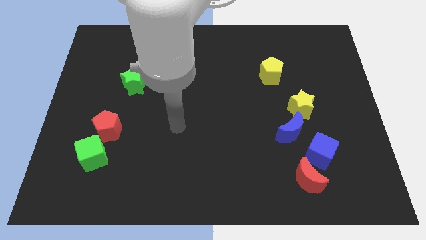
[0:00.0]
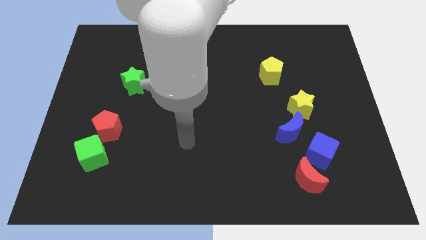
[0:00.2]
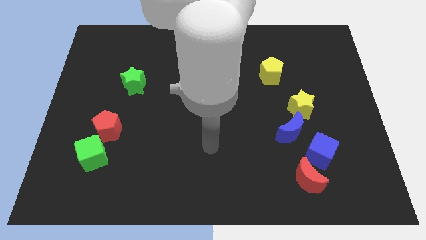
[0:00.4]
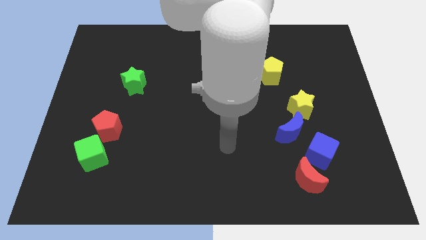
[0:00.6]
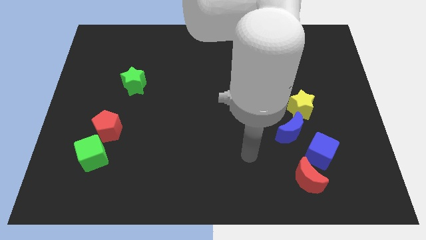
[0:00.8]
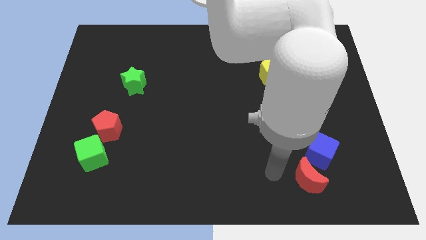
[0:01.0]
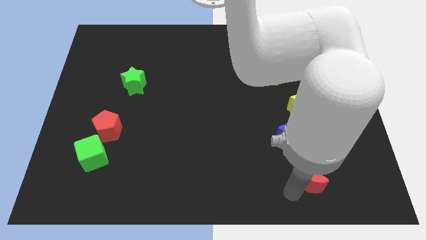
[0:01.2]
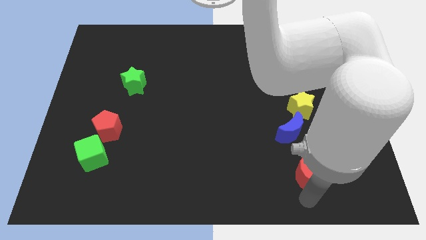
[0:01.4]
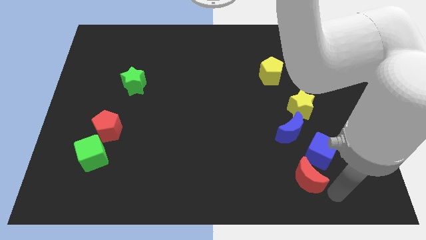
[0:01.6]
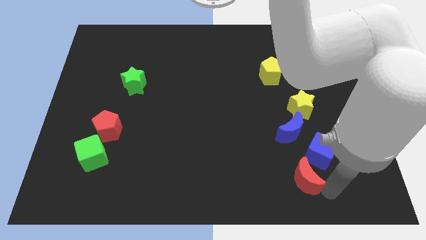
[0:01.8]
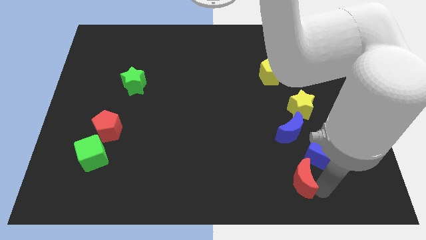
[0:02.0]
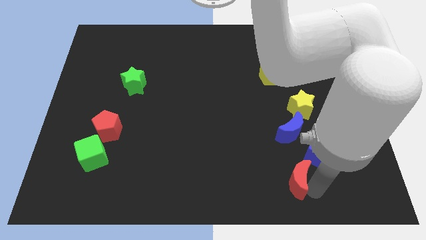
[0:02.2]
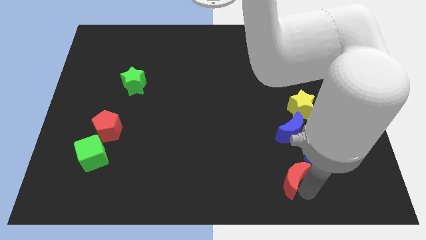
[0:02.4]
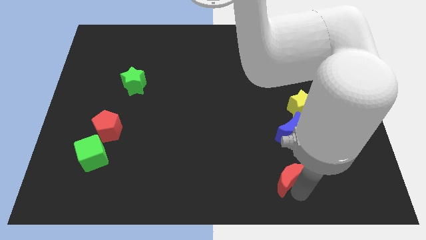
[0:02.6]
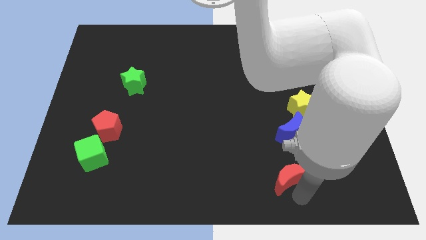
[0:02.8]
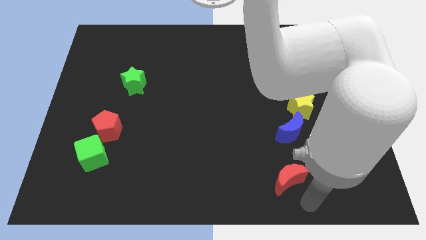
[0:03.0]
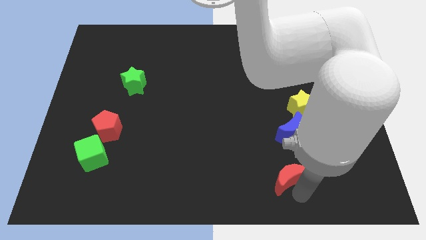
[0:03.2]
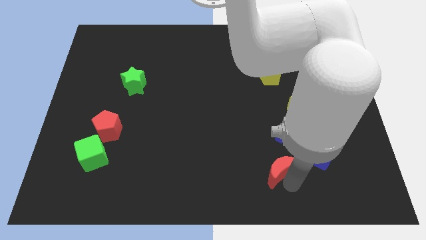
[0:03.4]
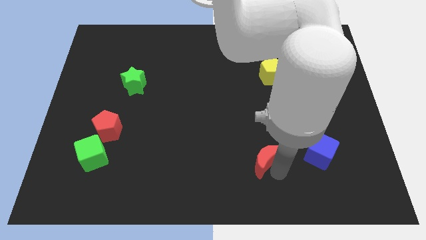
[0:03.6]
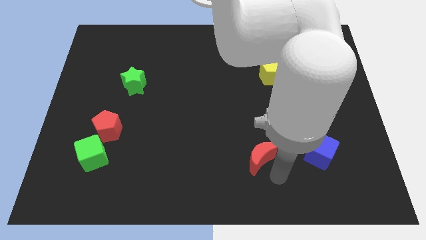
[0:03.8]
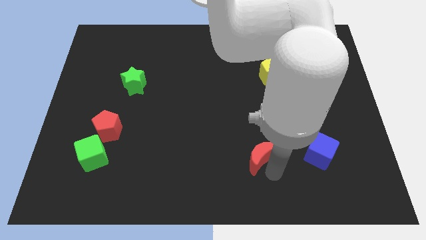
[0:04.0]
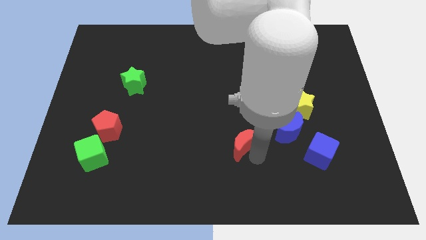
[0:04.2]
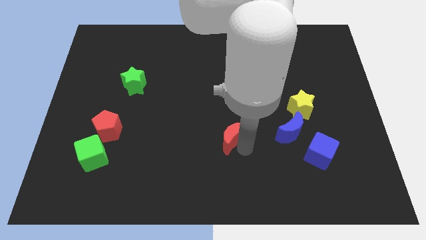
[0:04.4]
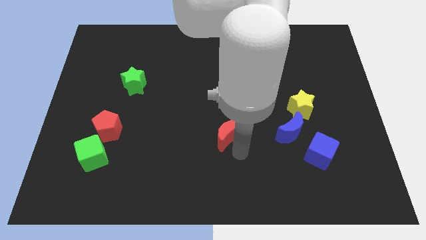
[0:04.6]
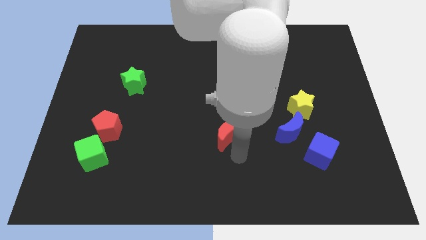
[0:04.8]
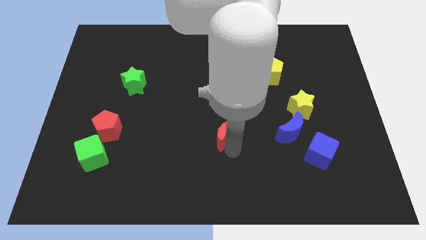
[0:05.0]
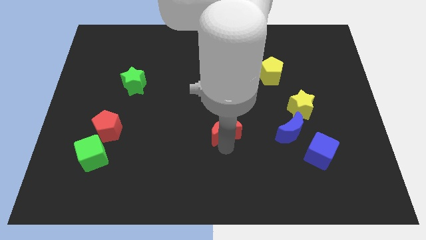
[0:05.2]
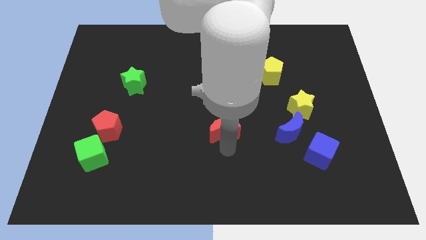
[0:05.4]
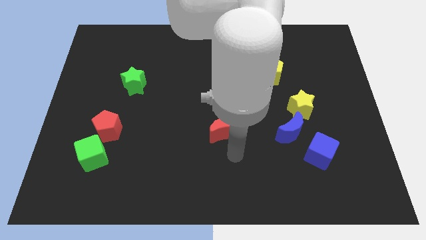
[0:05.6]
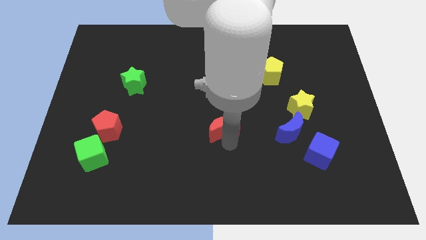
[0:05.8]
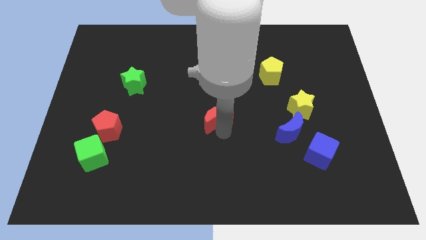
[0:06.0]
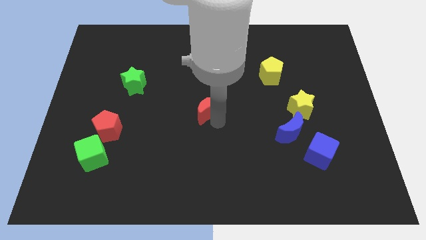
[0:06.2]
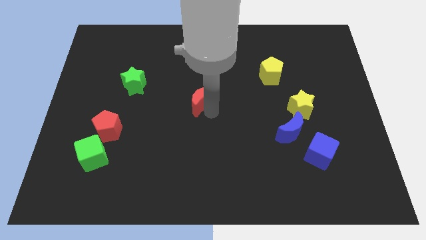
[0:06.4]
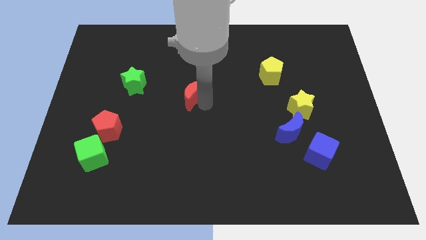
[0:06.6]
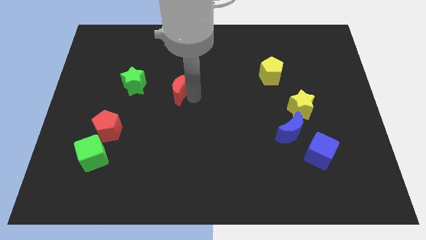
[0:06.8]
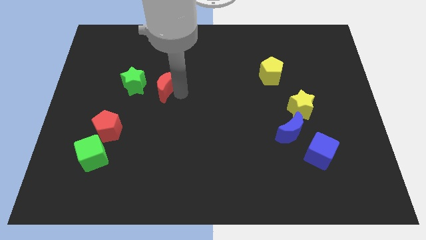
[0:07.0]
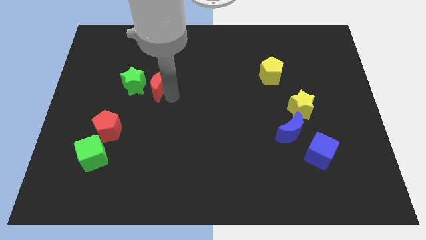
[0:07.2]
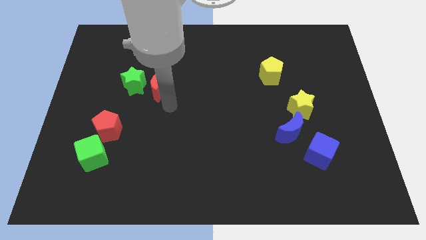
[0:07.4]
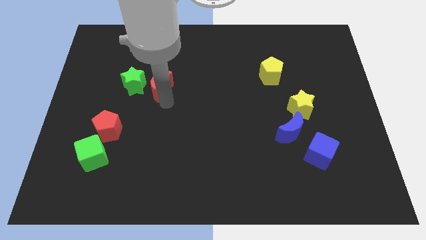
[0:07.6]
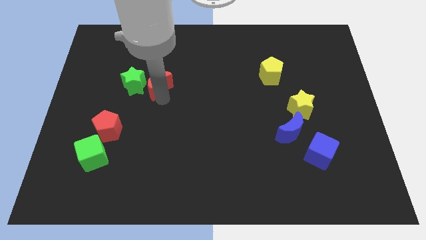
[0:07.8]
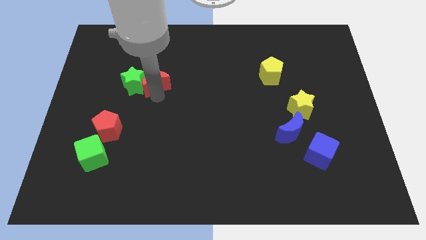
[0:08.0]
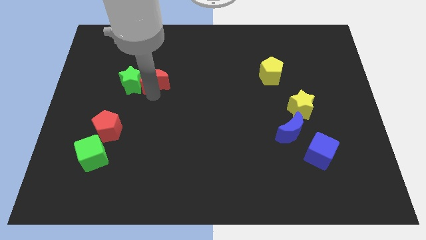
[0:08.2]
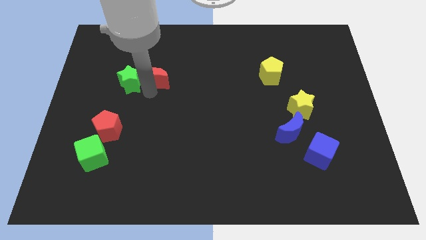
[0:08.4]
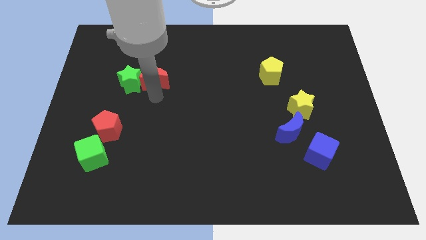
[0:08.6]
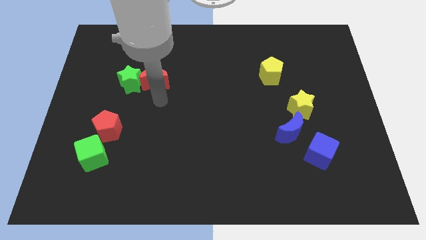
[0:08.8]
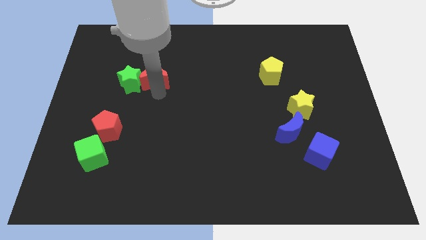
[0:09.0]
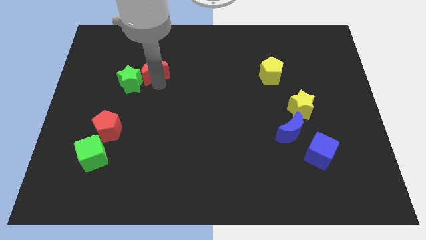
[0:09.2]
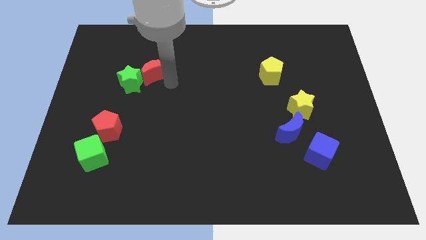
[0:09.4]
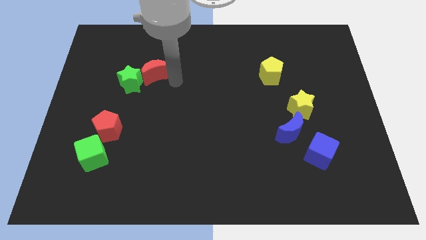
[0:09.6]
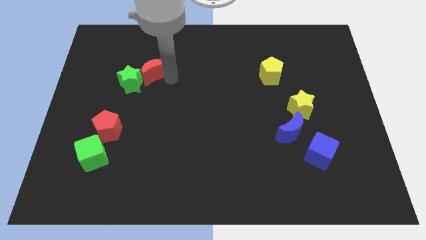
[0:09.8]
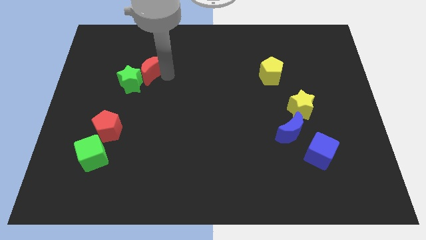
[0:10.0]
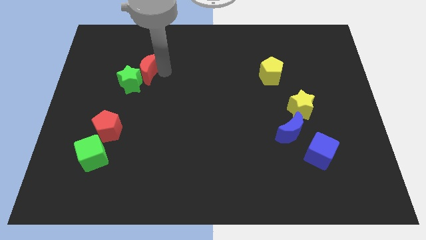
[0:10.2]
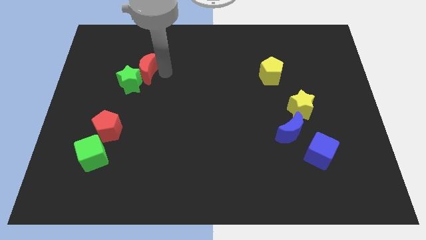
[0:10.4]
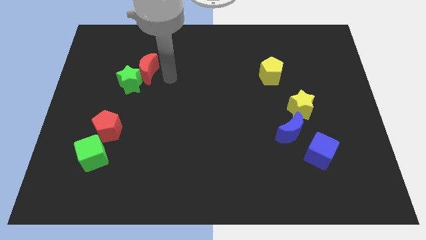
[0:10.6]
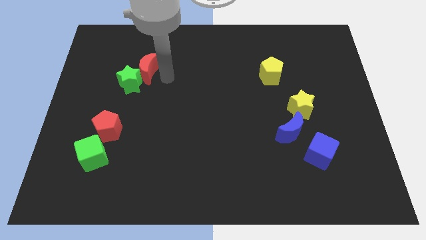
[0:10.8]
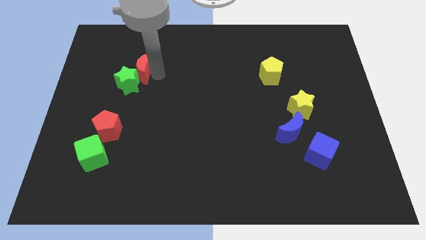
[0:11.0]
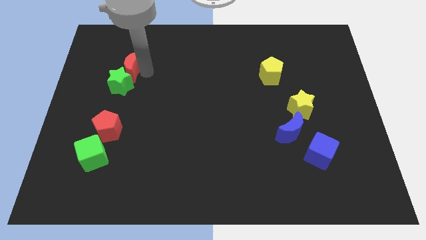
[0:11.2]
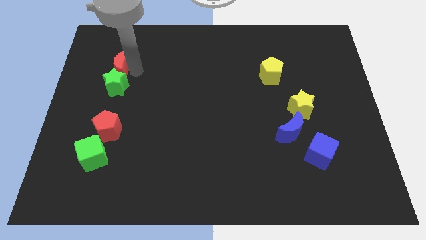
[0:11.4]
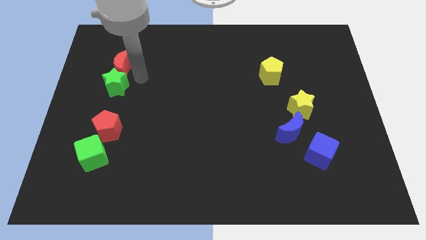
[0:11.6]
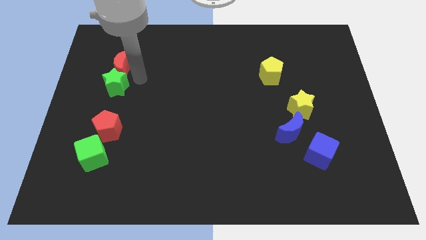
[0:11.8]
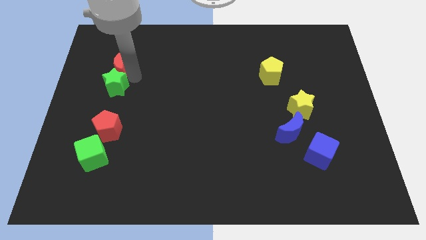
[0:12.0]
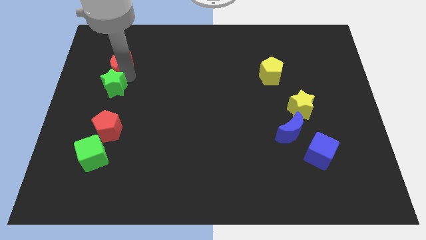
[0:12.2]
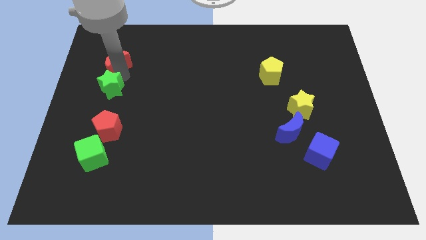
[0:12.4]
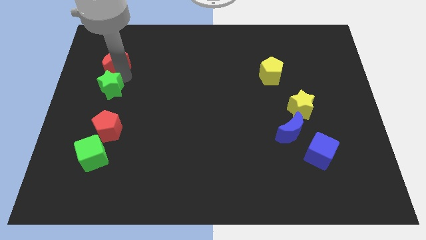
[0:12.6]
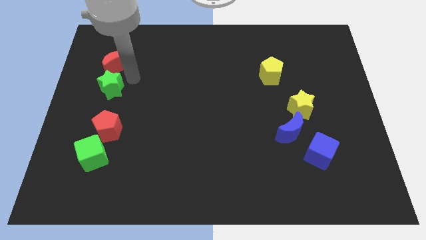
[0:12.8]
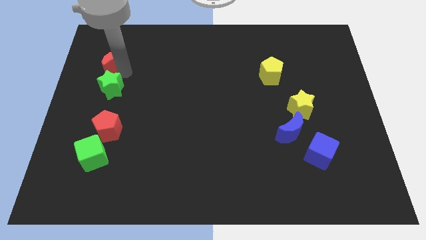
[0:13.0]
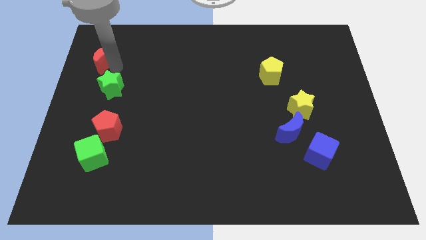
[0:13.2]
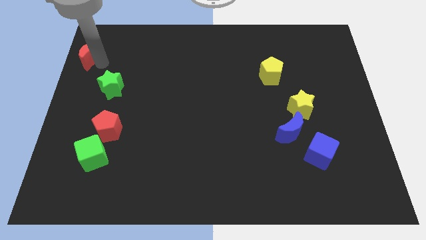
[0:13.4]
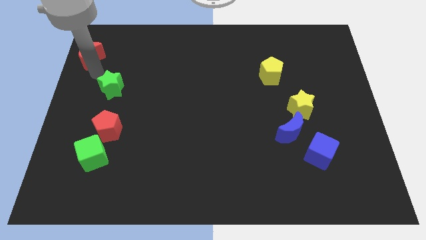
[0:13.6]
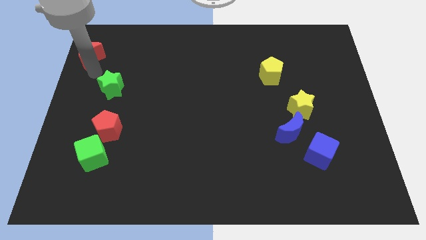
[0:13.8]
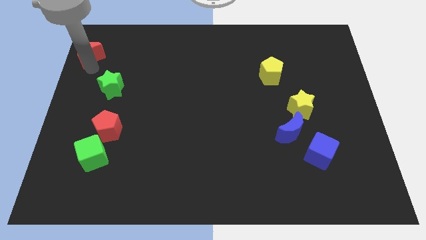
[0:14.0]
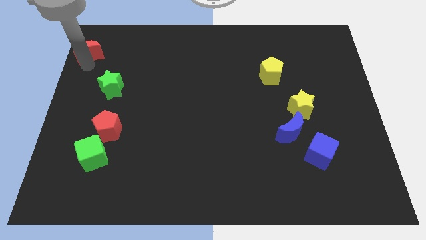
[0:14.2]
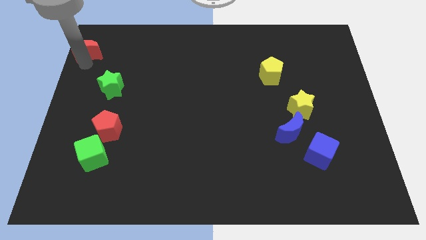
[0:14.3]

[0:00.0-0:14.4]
put the red moon to the upper left corner
